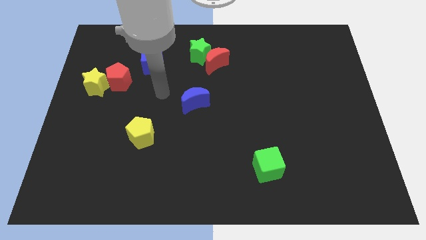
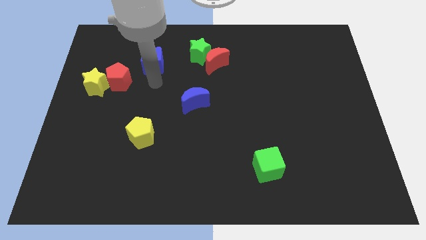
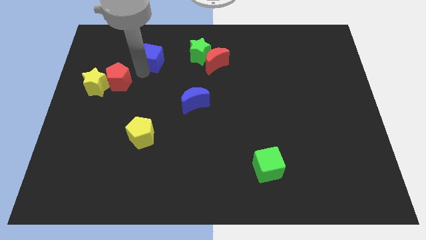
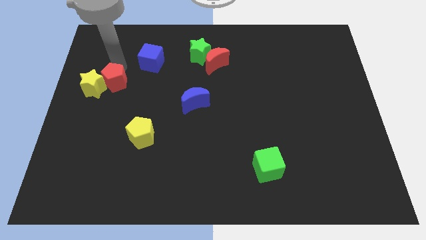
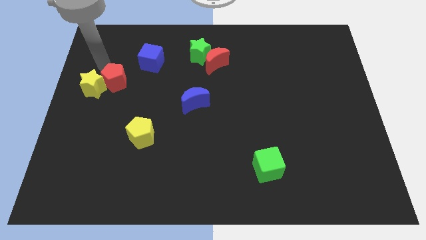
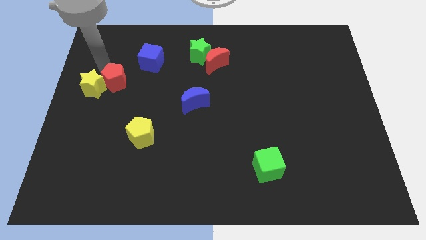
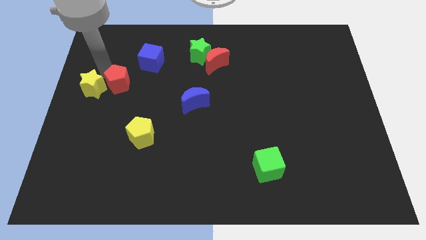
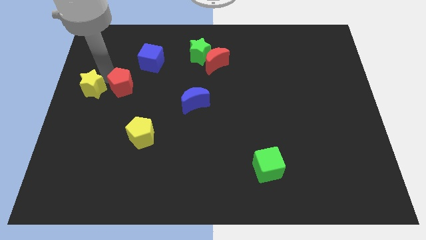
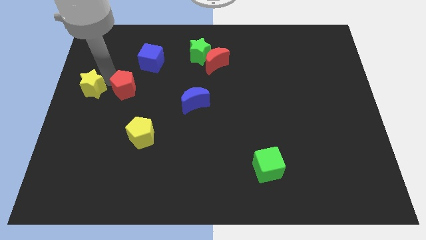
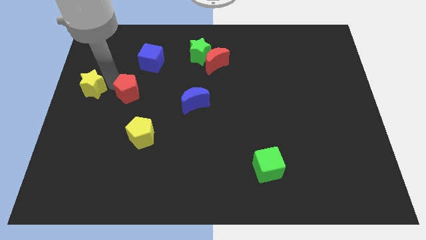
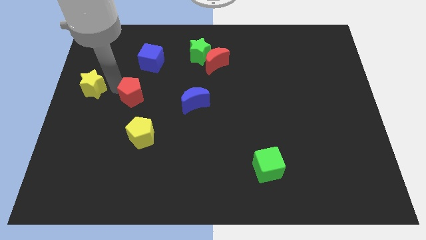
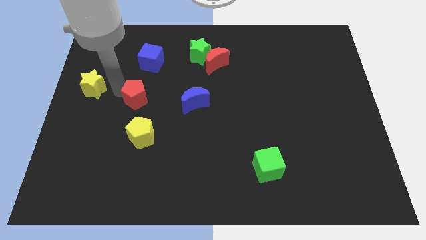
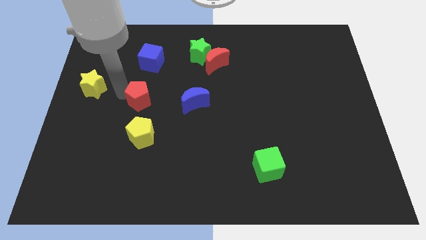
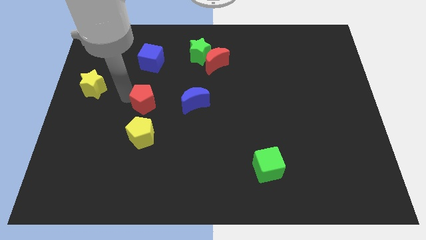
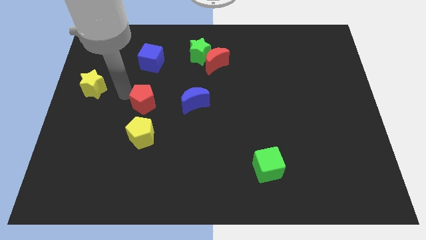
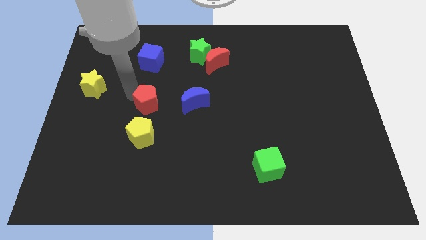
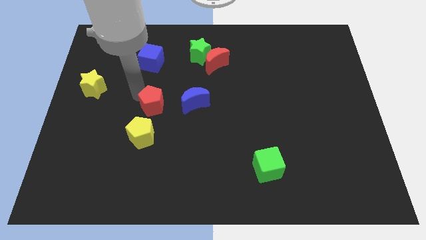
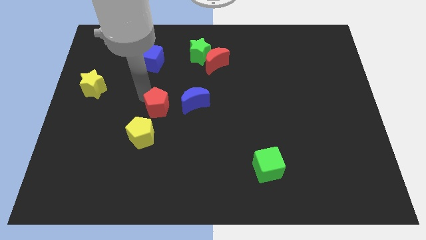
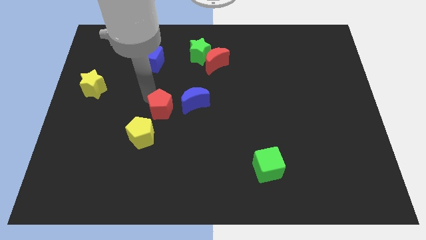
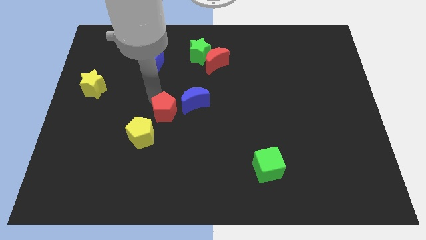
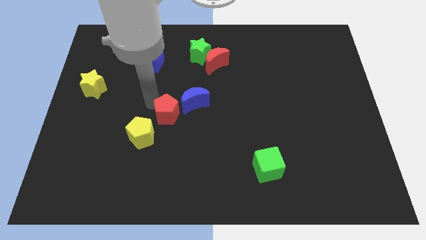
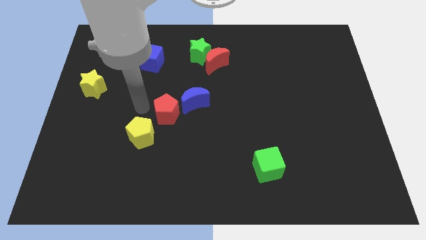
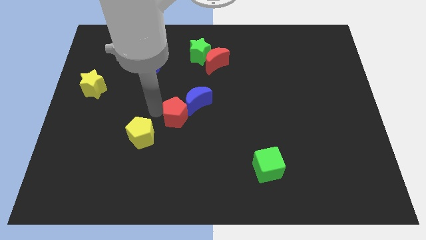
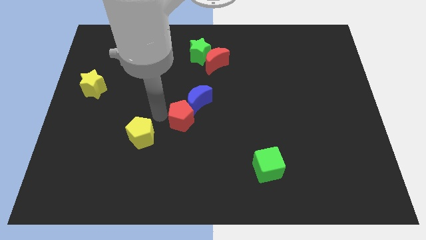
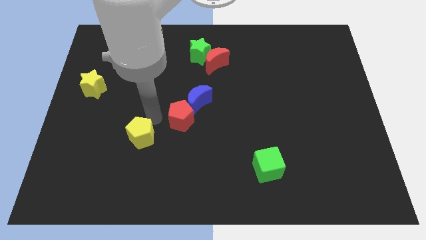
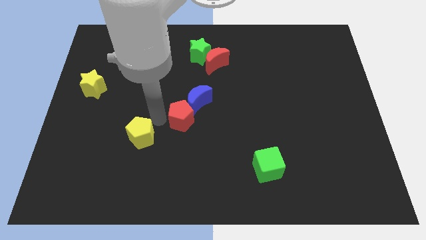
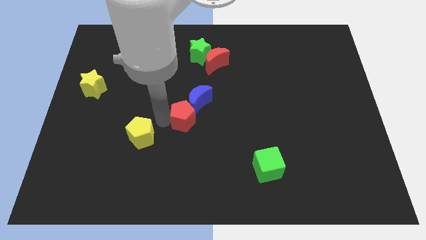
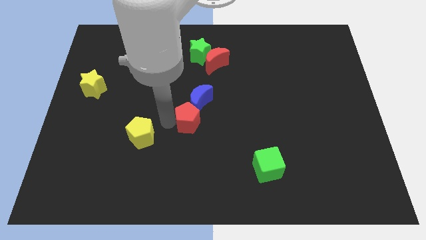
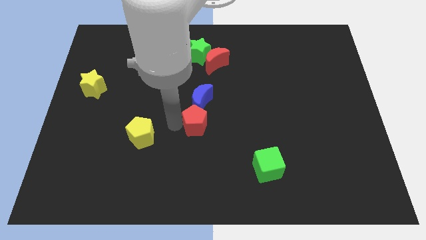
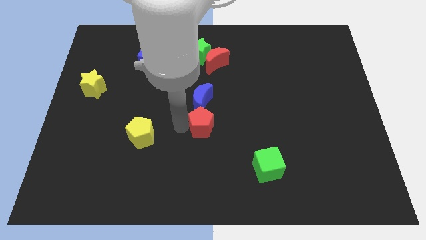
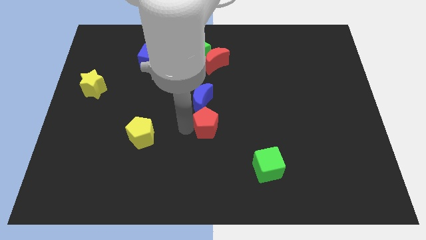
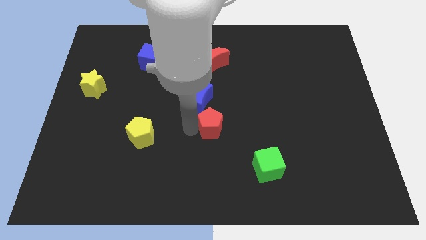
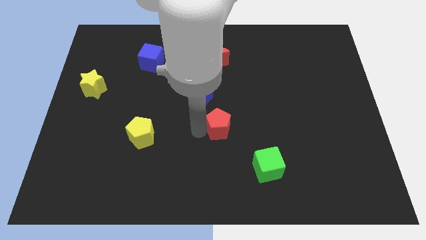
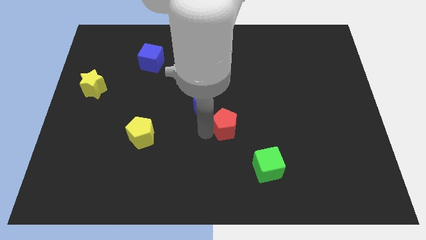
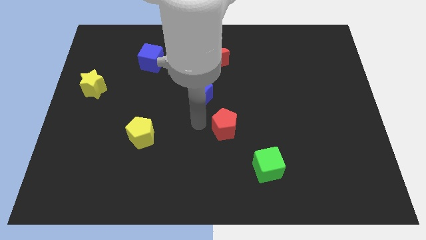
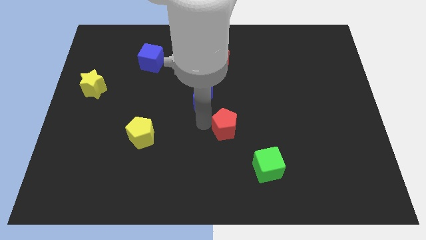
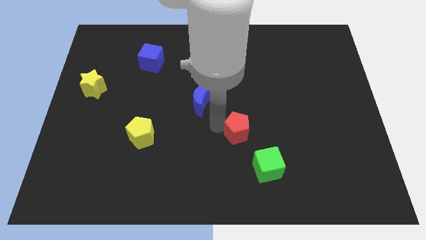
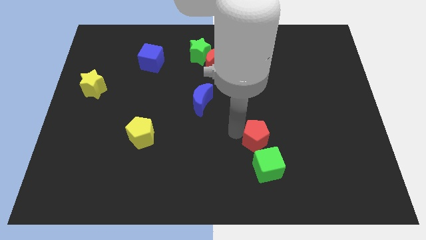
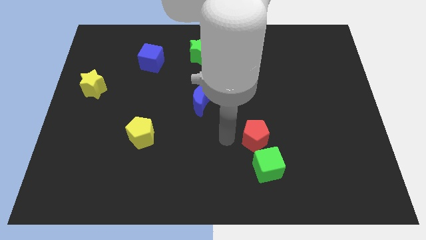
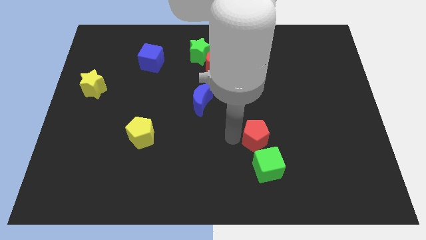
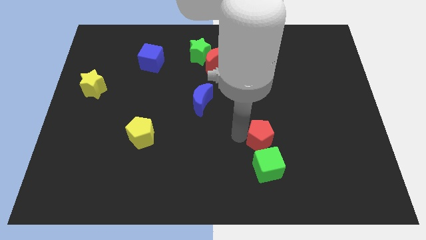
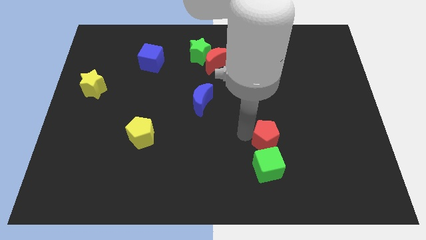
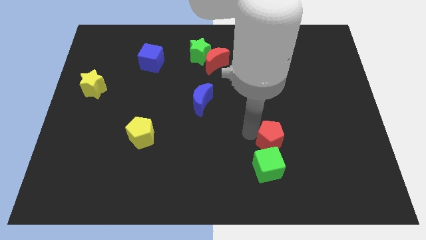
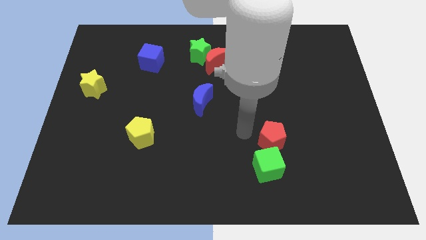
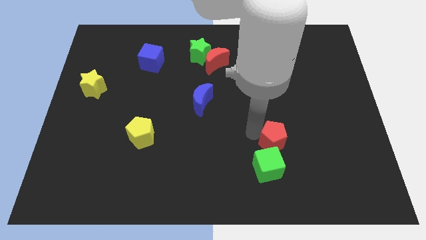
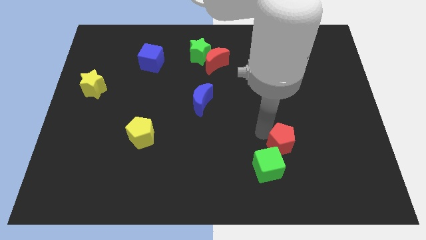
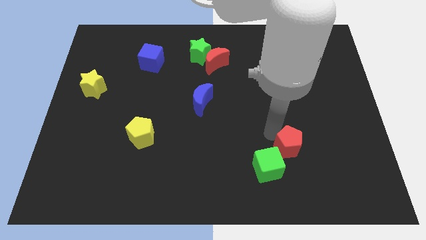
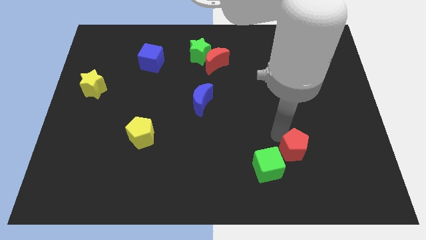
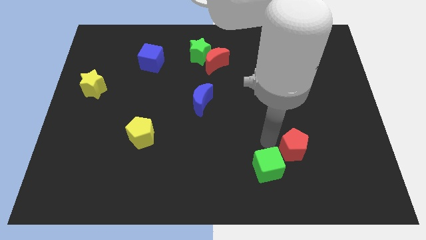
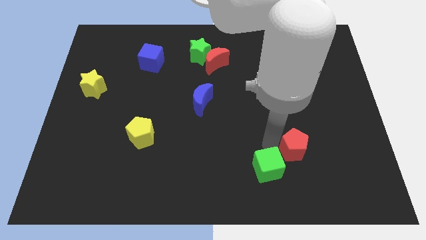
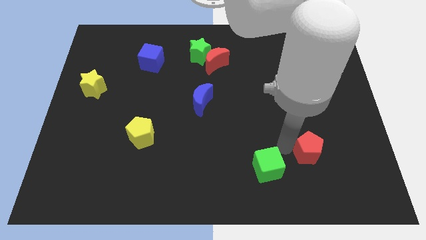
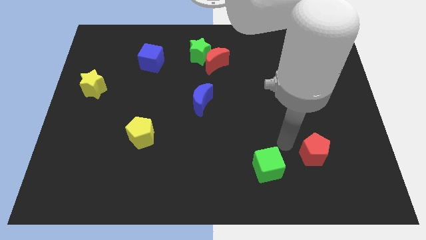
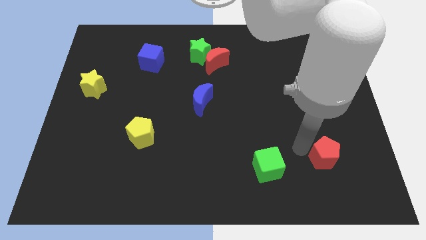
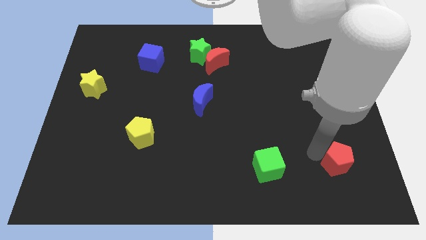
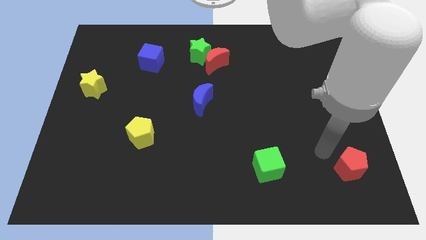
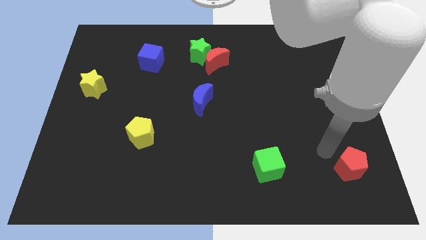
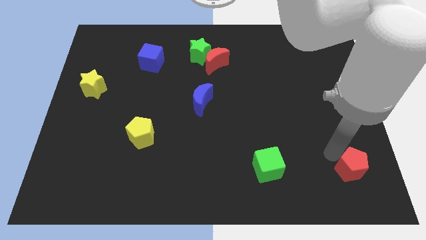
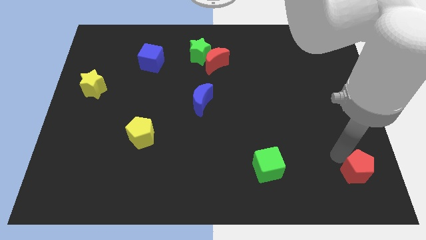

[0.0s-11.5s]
push the red pentagon to the lower right corner
